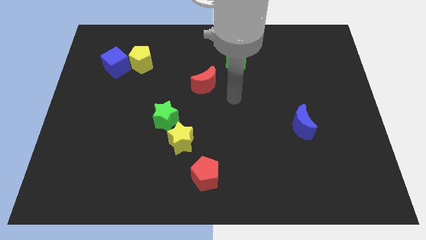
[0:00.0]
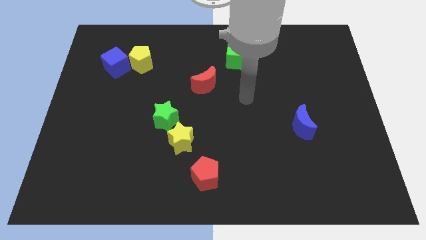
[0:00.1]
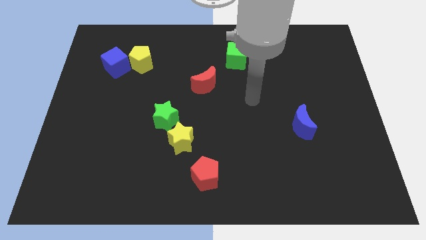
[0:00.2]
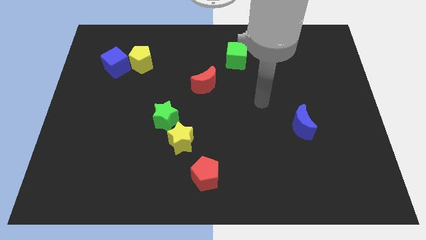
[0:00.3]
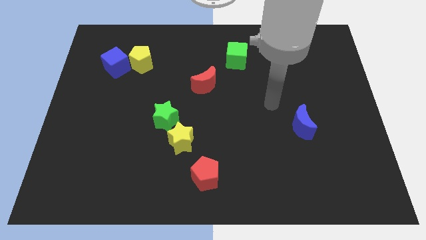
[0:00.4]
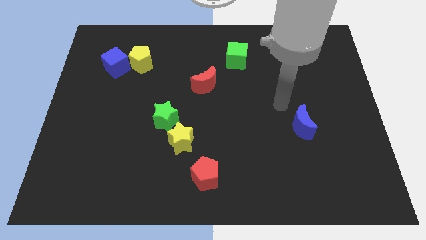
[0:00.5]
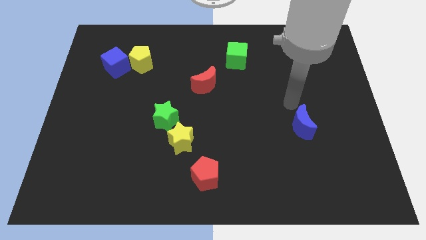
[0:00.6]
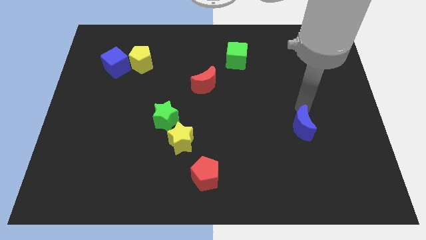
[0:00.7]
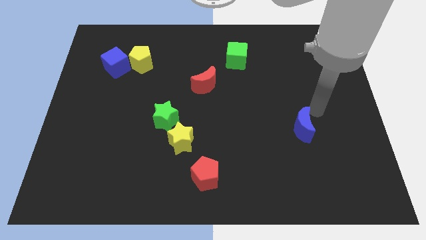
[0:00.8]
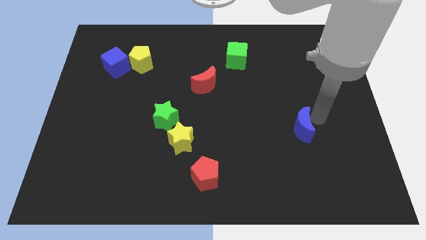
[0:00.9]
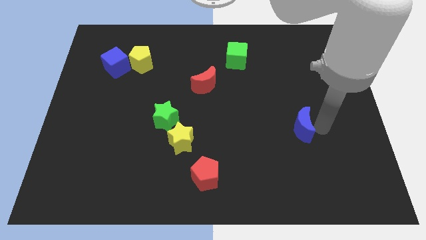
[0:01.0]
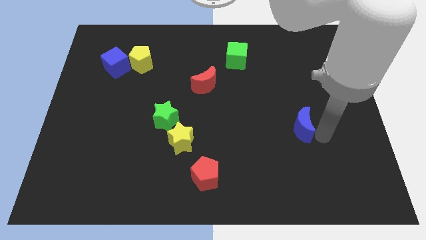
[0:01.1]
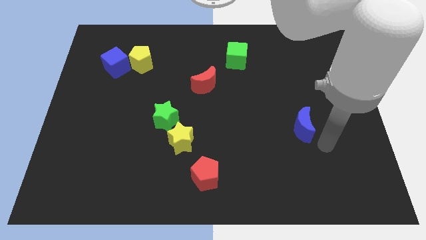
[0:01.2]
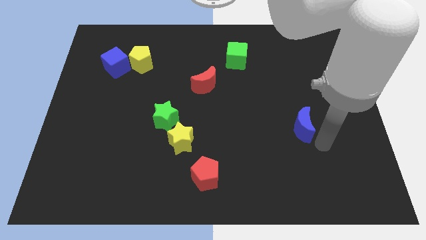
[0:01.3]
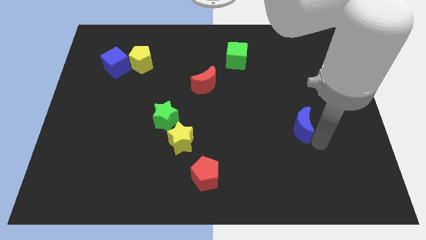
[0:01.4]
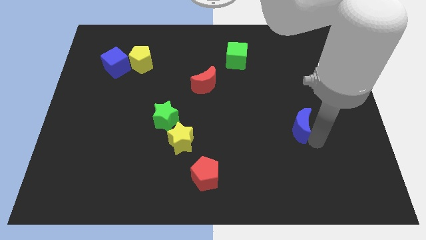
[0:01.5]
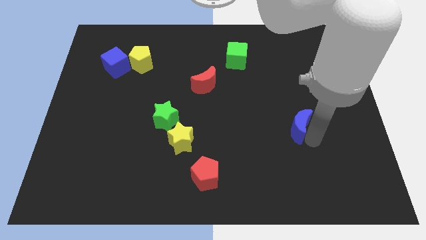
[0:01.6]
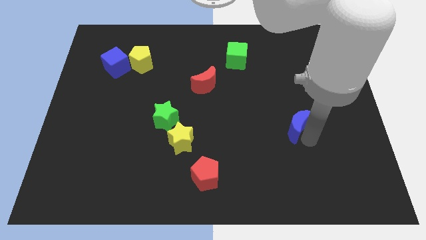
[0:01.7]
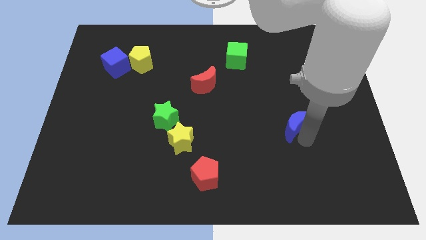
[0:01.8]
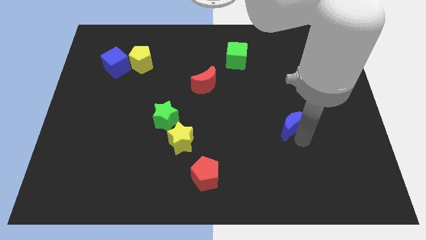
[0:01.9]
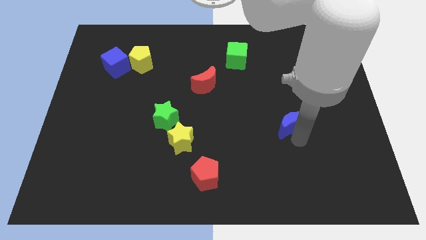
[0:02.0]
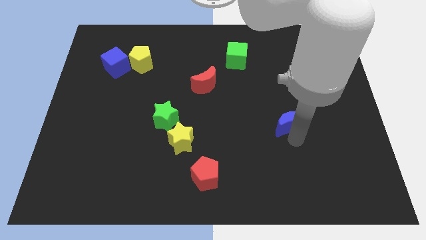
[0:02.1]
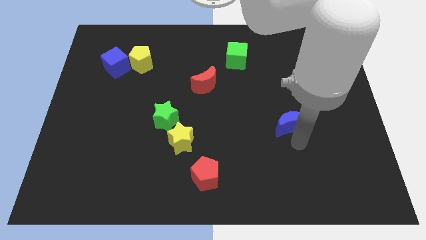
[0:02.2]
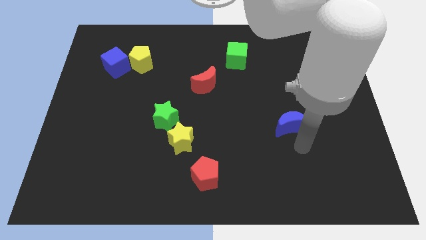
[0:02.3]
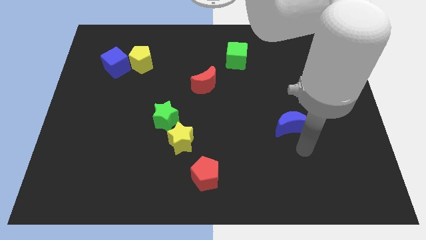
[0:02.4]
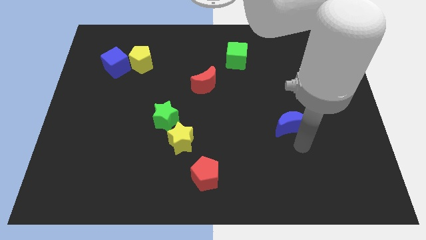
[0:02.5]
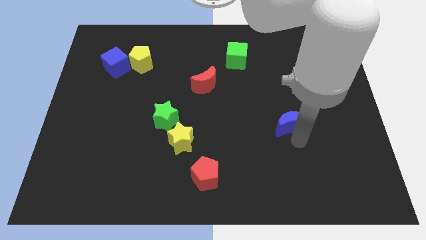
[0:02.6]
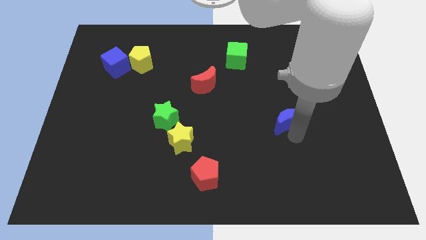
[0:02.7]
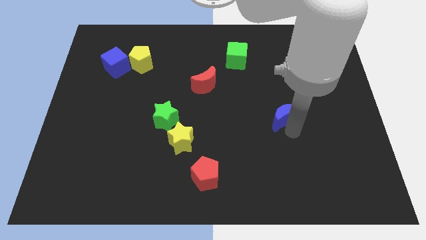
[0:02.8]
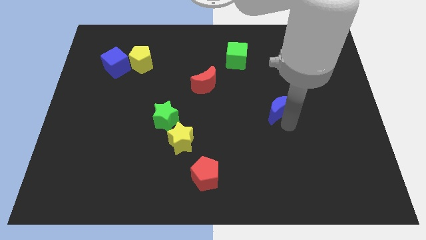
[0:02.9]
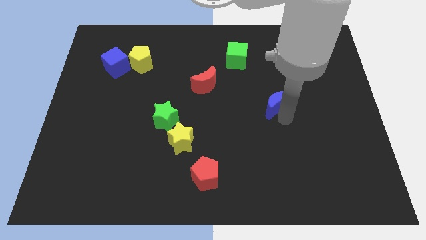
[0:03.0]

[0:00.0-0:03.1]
move the blue moon up and then left slightly

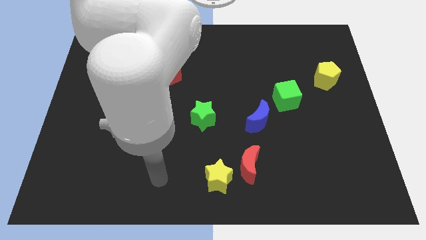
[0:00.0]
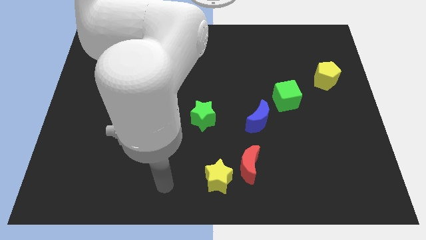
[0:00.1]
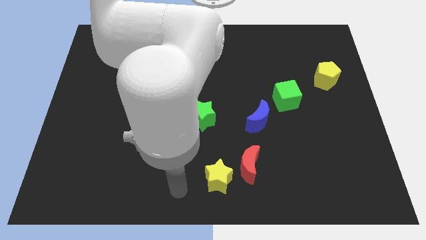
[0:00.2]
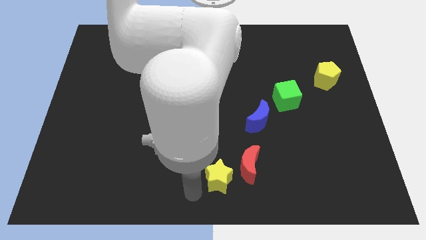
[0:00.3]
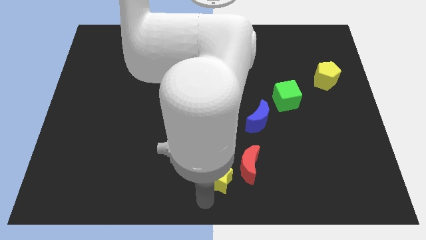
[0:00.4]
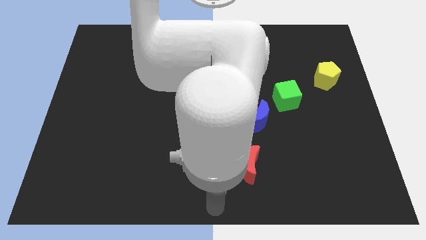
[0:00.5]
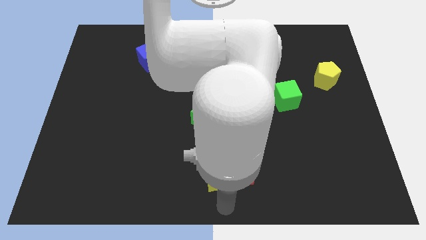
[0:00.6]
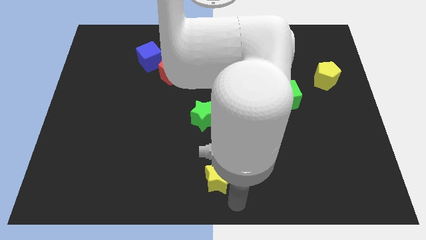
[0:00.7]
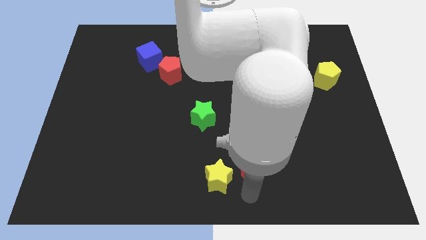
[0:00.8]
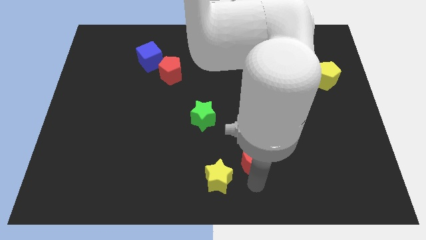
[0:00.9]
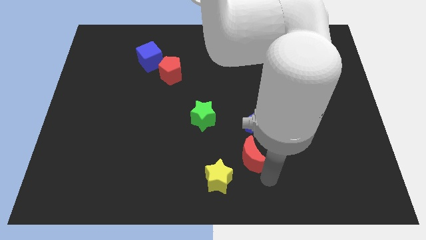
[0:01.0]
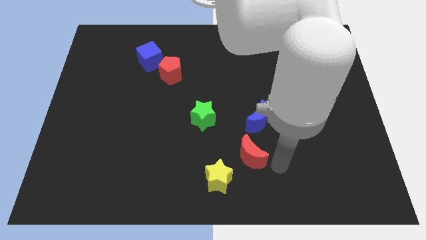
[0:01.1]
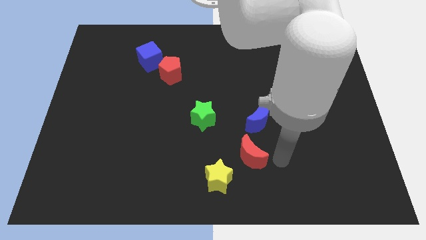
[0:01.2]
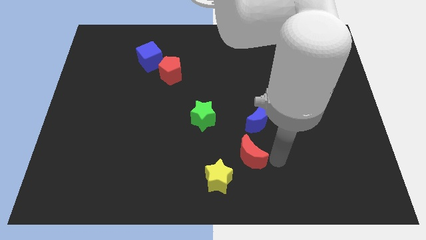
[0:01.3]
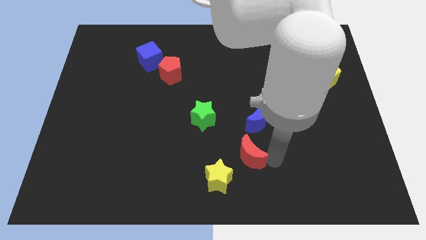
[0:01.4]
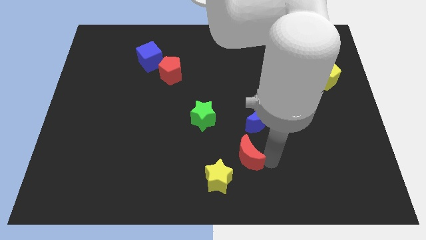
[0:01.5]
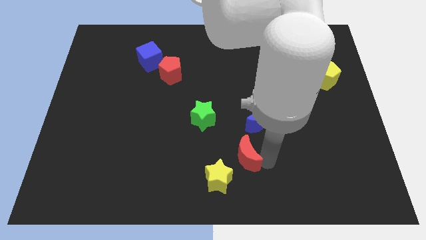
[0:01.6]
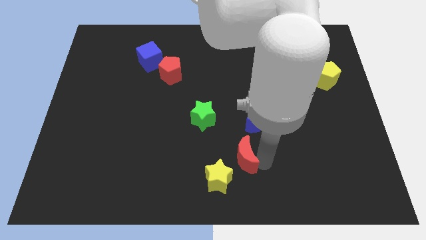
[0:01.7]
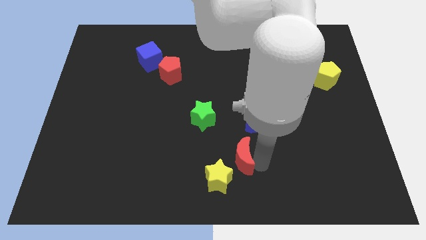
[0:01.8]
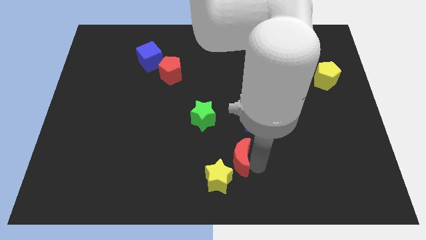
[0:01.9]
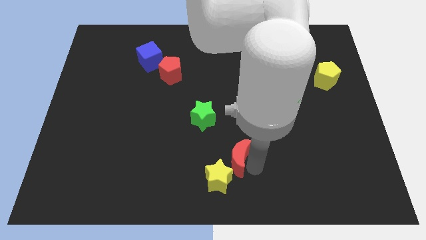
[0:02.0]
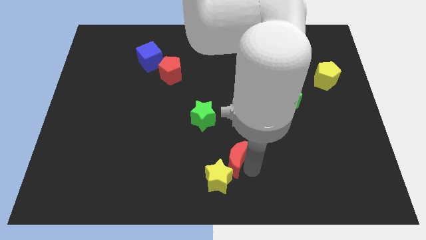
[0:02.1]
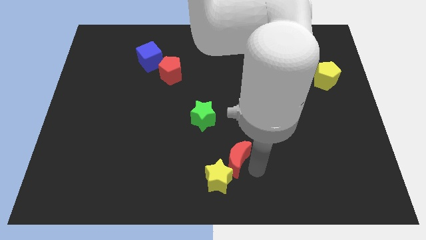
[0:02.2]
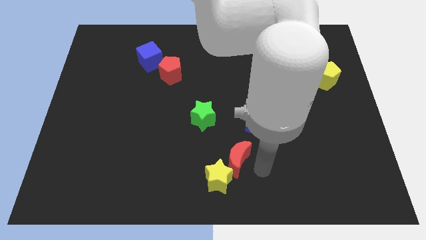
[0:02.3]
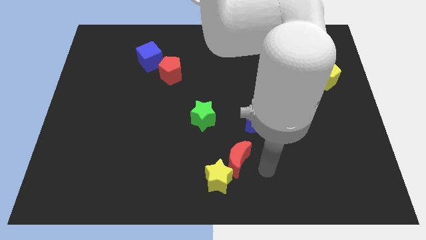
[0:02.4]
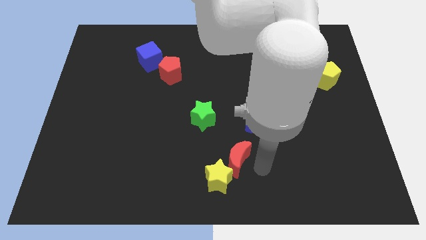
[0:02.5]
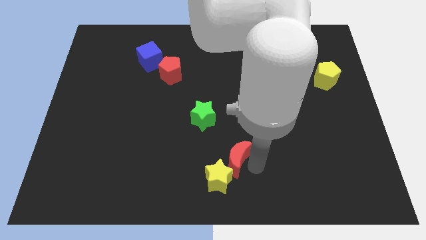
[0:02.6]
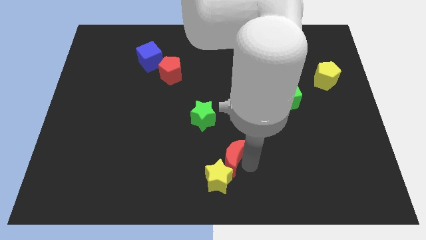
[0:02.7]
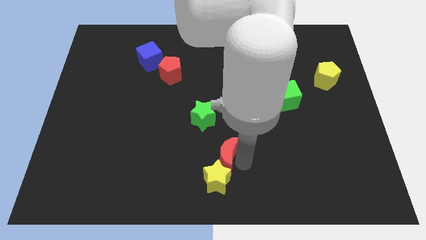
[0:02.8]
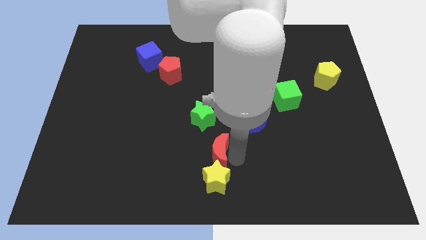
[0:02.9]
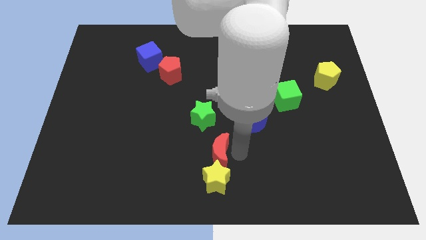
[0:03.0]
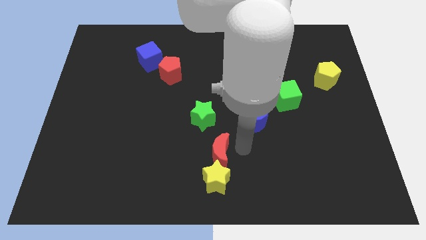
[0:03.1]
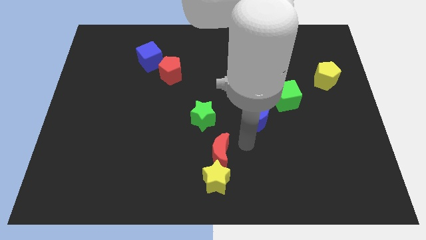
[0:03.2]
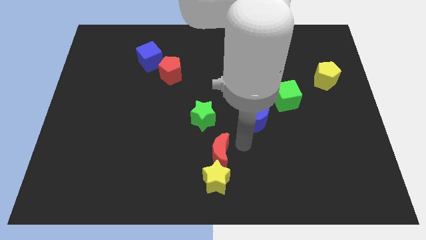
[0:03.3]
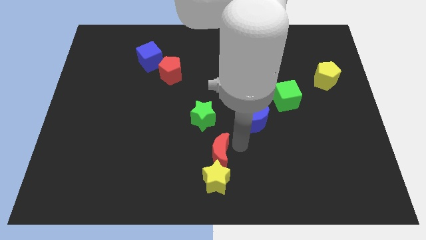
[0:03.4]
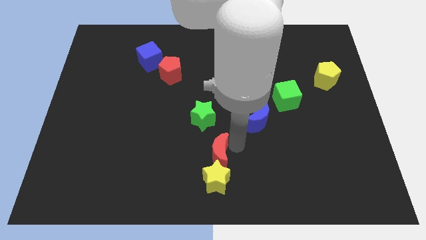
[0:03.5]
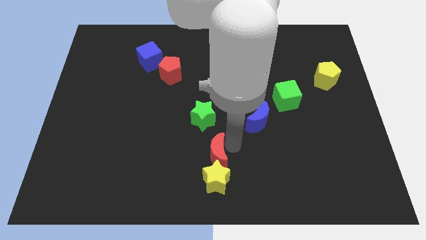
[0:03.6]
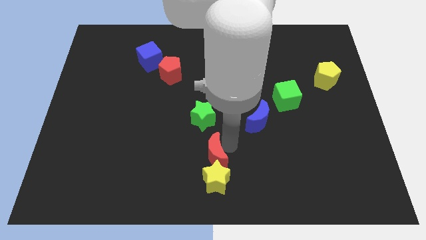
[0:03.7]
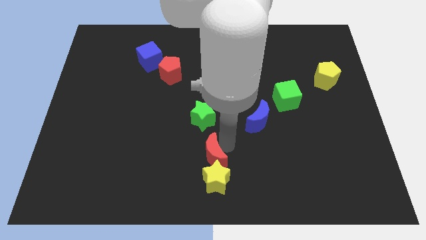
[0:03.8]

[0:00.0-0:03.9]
slide the red moon a little bit to the left

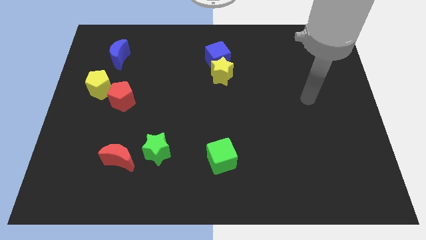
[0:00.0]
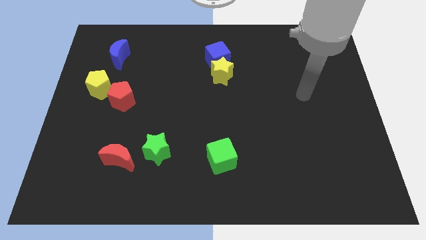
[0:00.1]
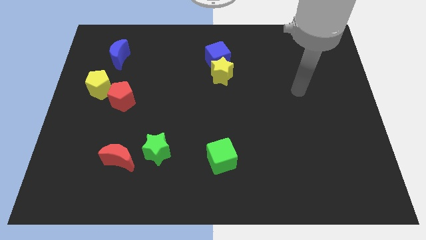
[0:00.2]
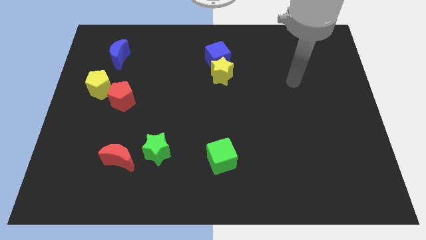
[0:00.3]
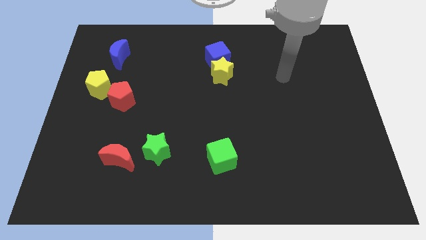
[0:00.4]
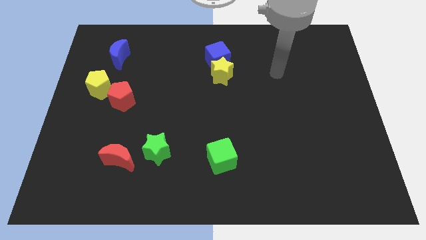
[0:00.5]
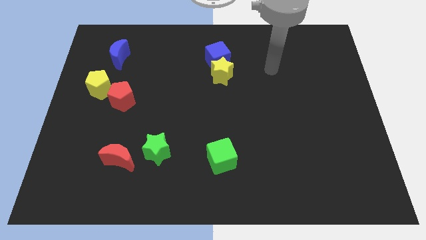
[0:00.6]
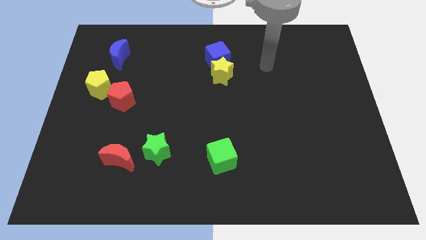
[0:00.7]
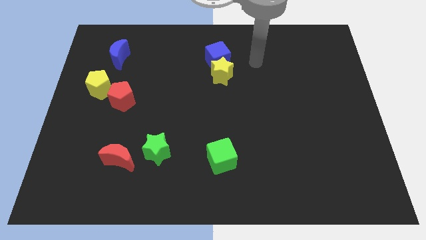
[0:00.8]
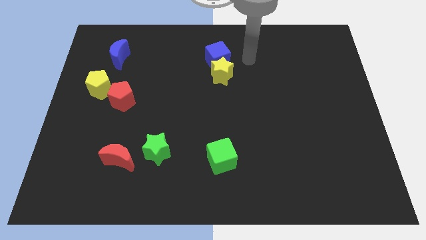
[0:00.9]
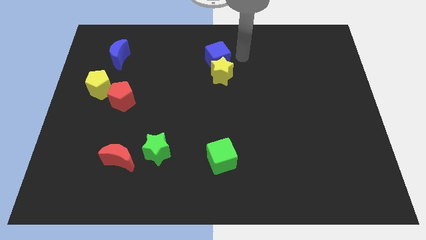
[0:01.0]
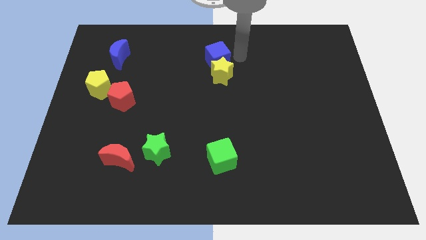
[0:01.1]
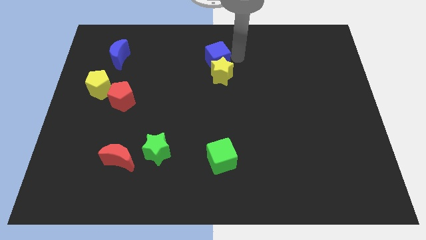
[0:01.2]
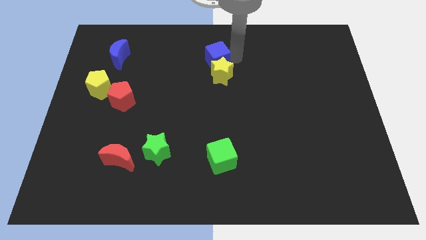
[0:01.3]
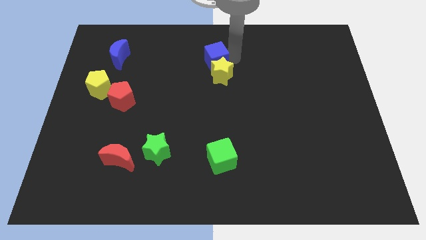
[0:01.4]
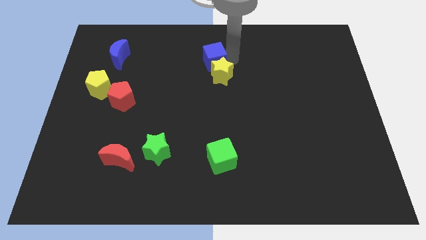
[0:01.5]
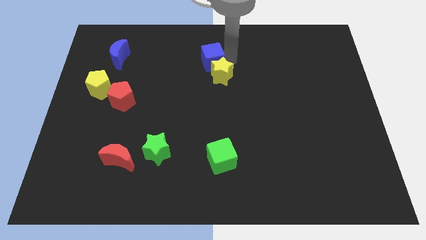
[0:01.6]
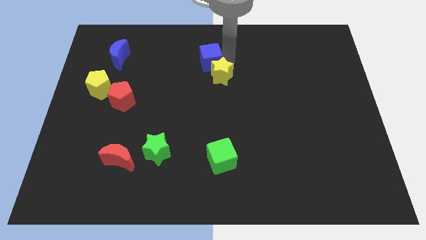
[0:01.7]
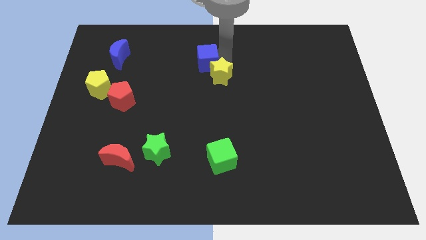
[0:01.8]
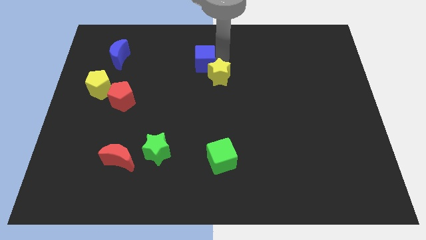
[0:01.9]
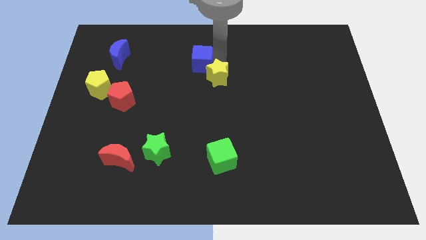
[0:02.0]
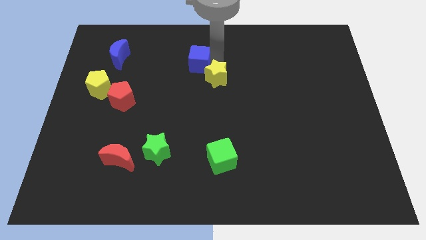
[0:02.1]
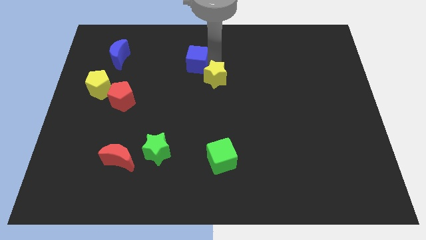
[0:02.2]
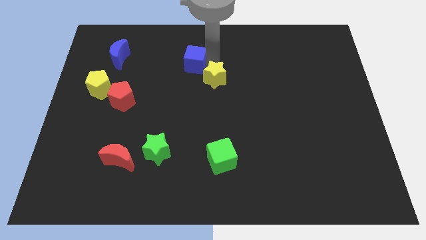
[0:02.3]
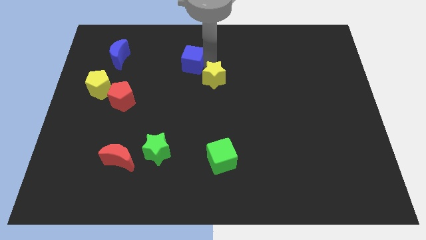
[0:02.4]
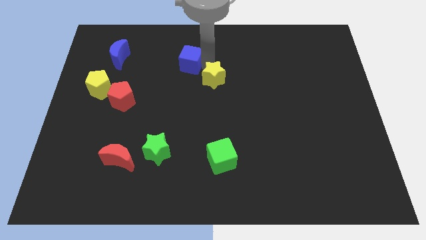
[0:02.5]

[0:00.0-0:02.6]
slightly slide the blue cube left
